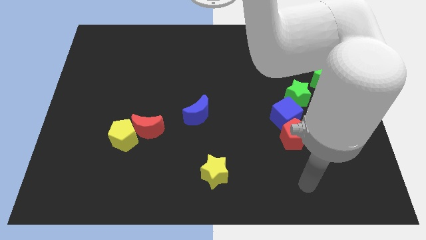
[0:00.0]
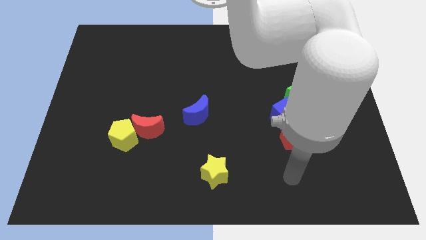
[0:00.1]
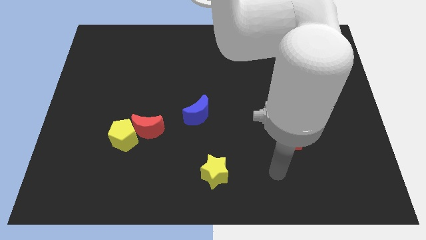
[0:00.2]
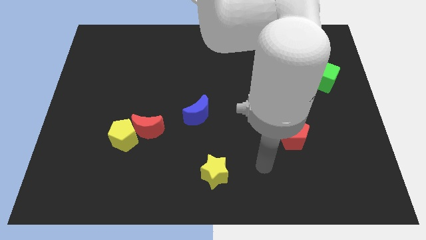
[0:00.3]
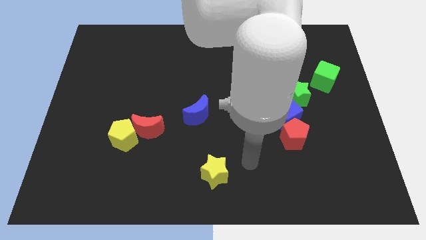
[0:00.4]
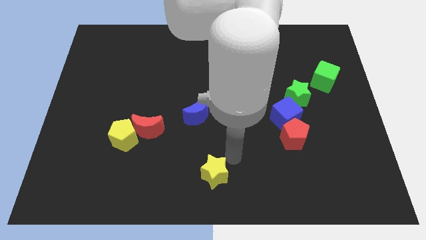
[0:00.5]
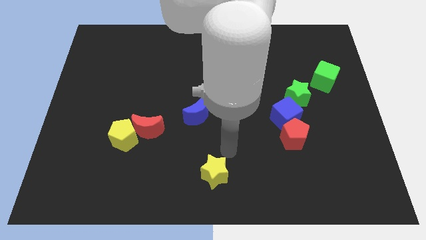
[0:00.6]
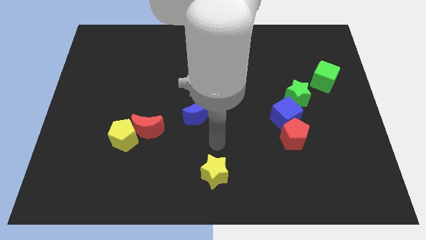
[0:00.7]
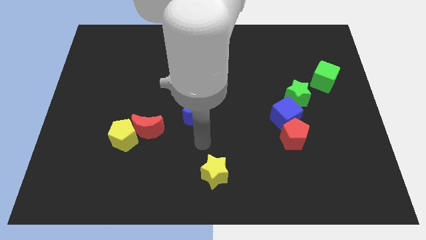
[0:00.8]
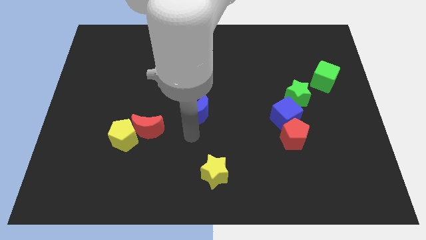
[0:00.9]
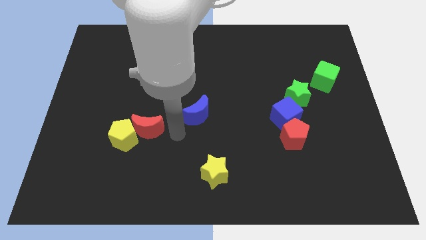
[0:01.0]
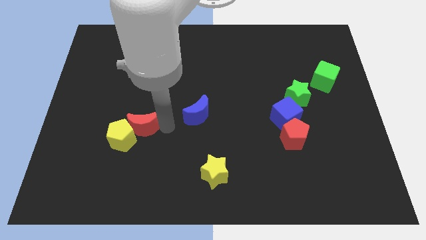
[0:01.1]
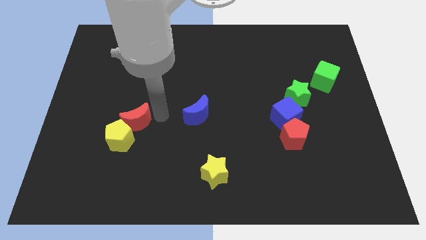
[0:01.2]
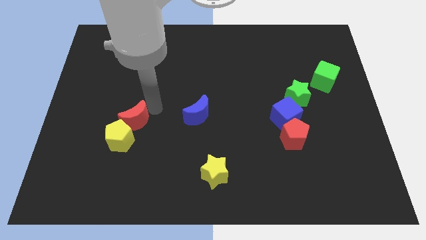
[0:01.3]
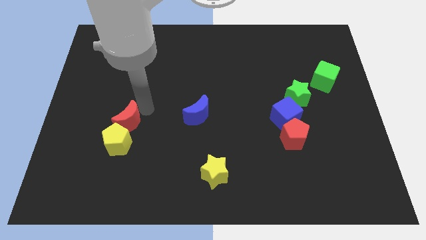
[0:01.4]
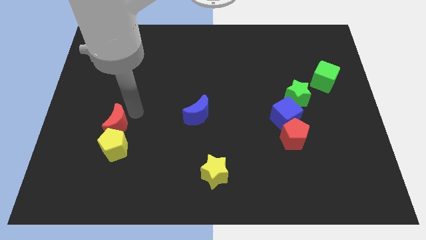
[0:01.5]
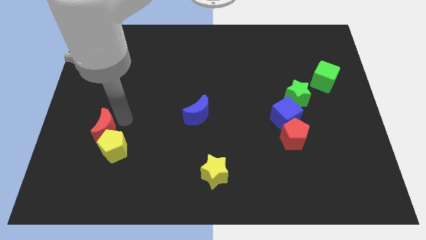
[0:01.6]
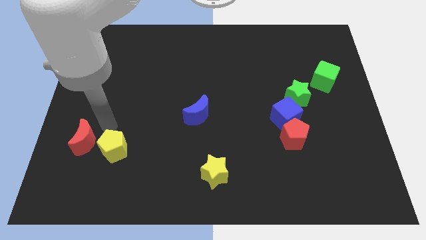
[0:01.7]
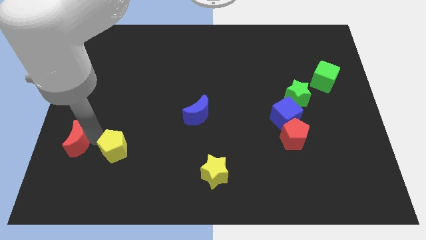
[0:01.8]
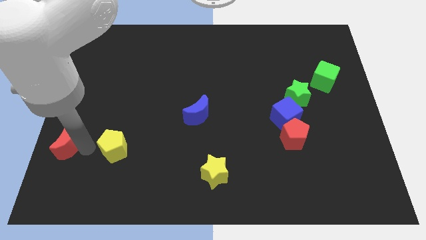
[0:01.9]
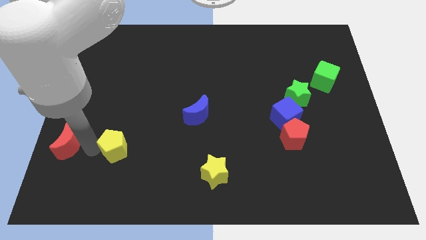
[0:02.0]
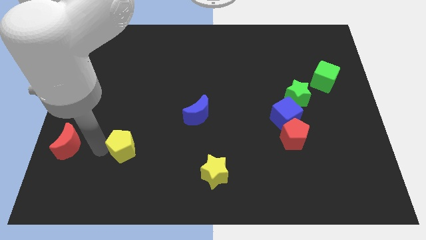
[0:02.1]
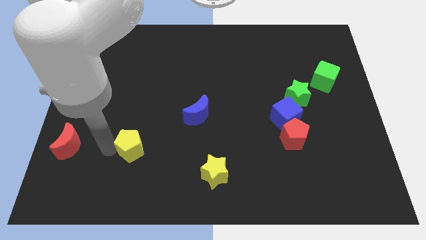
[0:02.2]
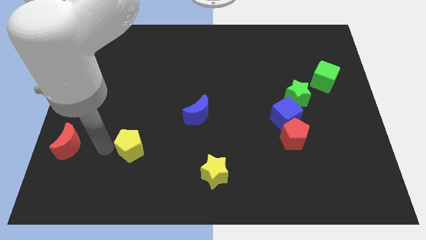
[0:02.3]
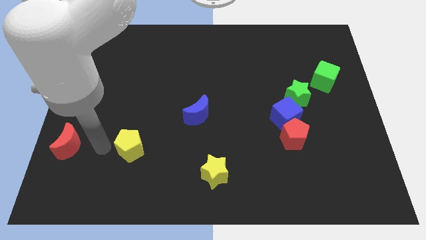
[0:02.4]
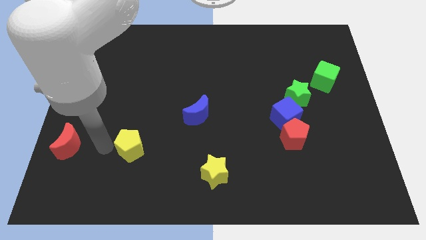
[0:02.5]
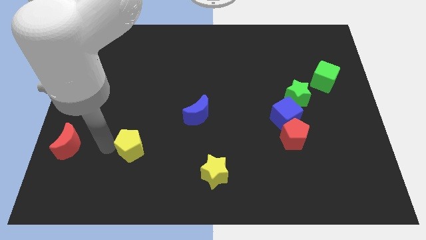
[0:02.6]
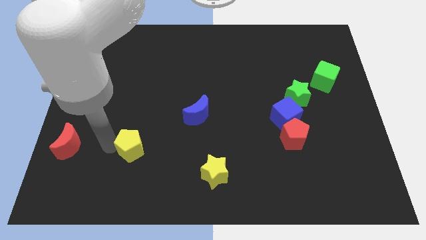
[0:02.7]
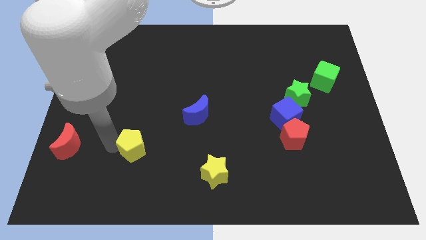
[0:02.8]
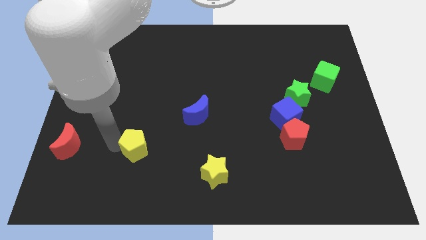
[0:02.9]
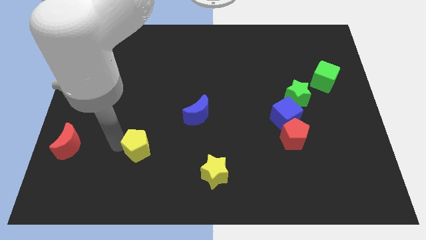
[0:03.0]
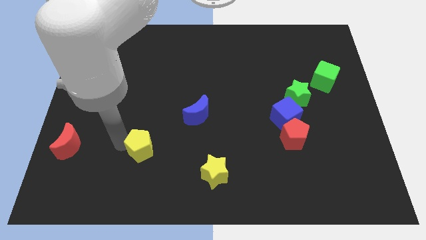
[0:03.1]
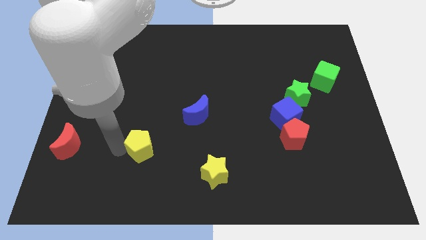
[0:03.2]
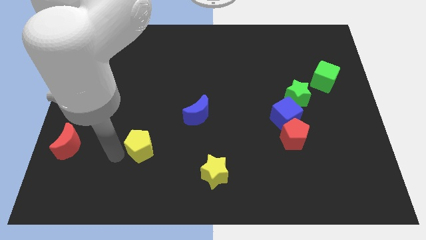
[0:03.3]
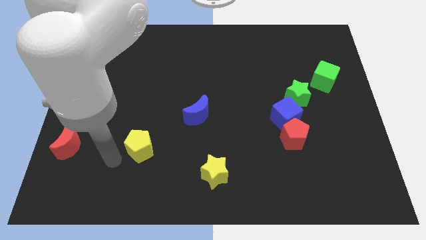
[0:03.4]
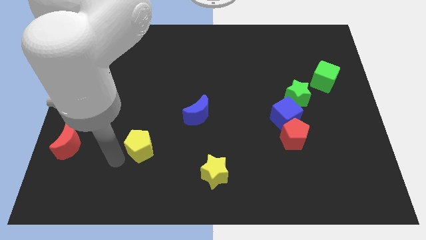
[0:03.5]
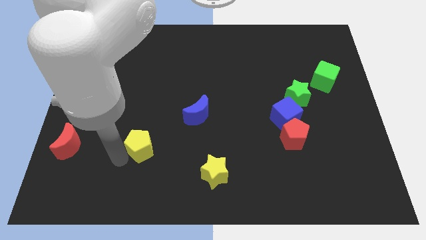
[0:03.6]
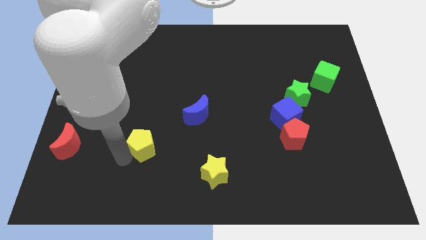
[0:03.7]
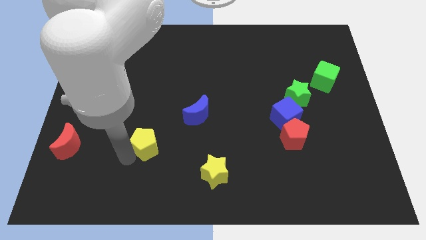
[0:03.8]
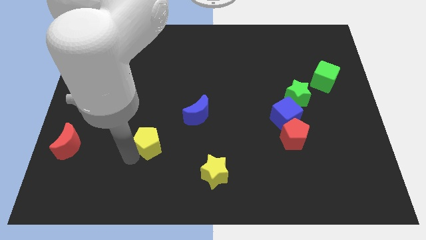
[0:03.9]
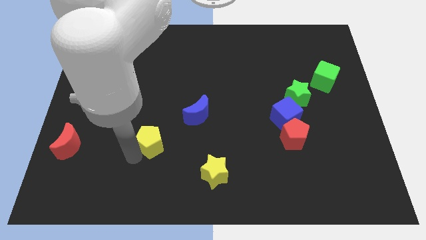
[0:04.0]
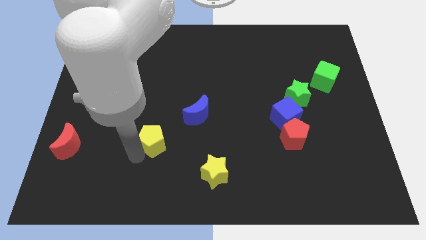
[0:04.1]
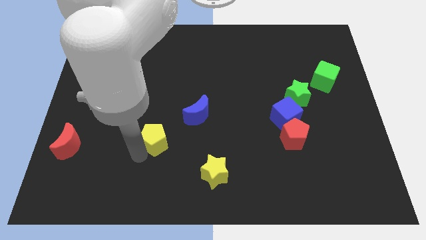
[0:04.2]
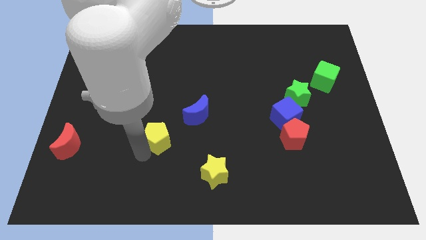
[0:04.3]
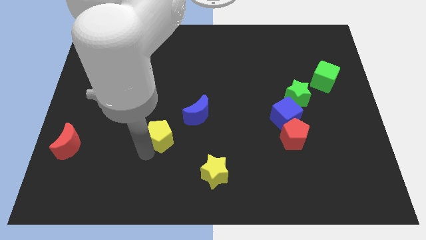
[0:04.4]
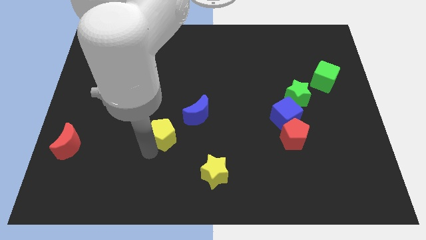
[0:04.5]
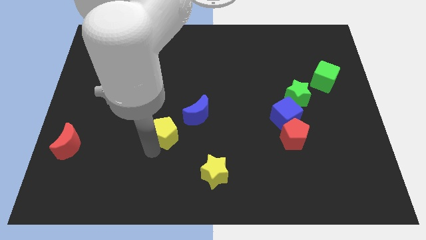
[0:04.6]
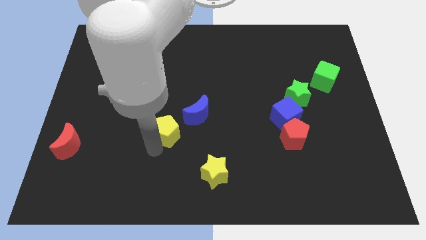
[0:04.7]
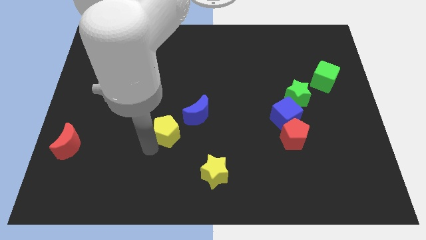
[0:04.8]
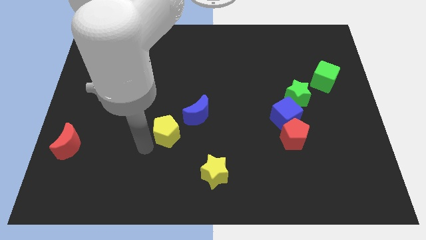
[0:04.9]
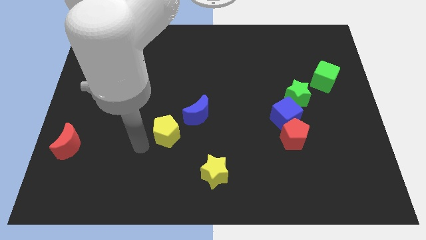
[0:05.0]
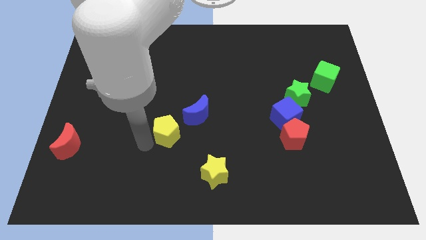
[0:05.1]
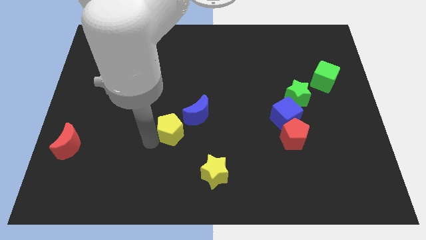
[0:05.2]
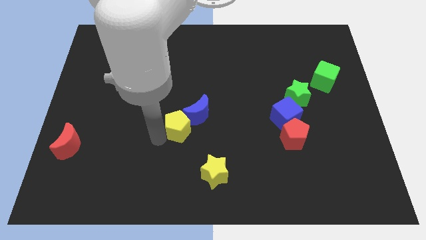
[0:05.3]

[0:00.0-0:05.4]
push the yellow pentagon next to the blue moon

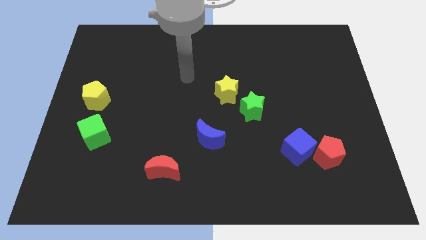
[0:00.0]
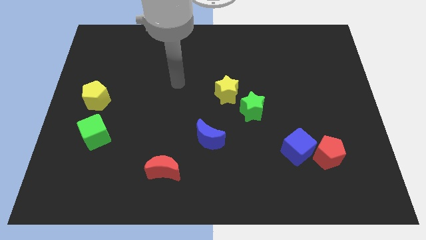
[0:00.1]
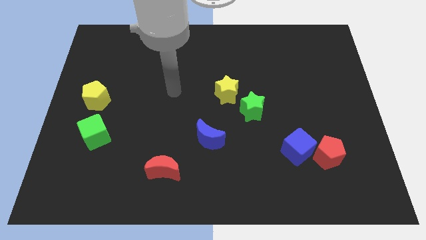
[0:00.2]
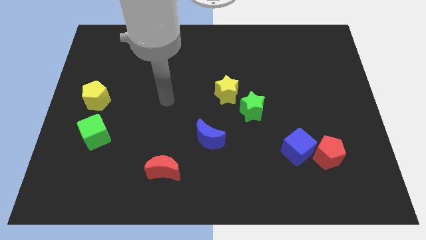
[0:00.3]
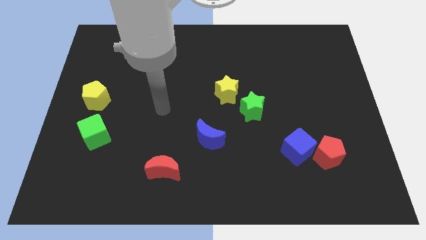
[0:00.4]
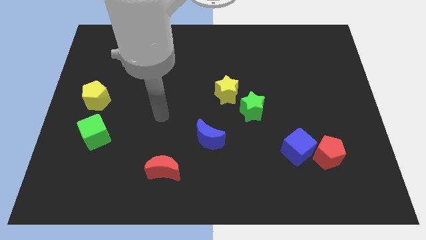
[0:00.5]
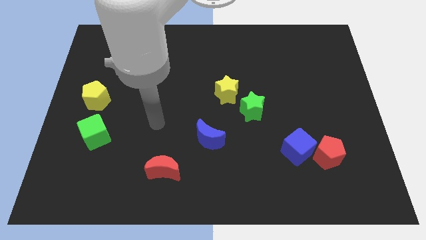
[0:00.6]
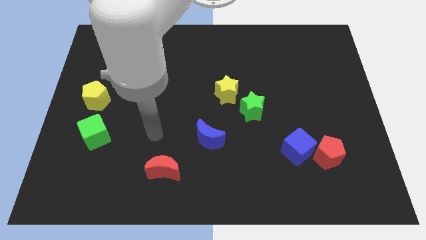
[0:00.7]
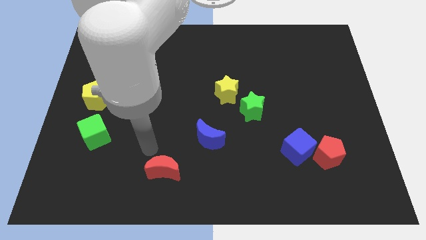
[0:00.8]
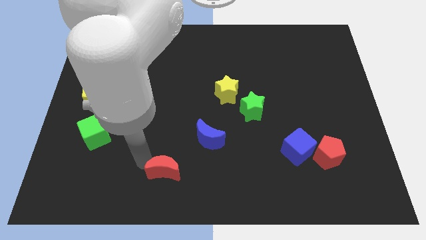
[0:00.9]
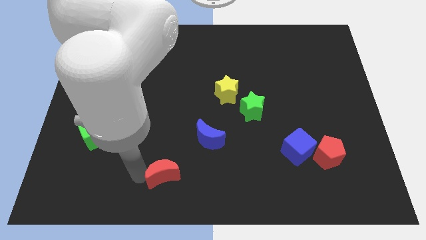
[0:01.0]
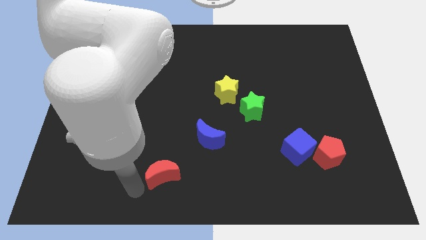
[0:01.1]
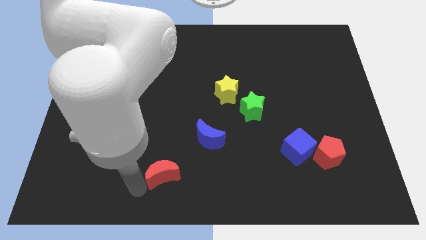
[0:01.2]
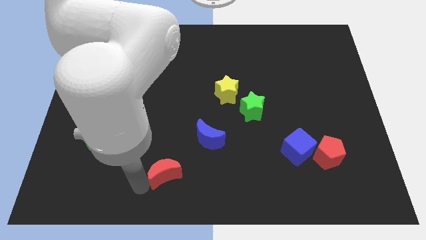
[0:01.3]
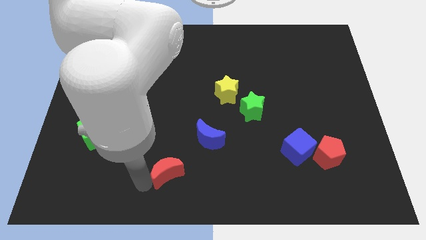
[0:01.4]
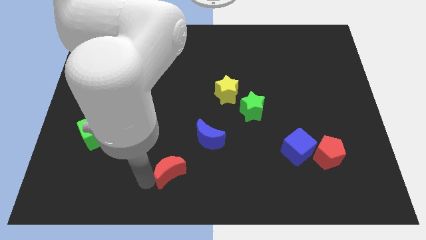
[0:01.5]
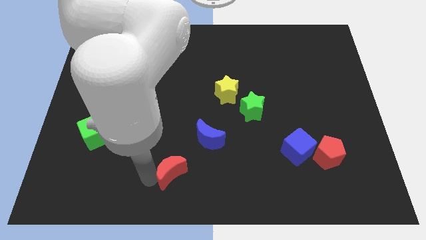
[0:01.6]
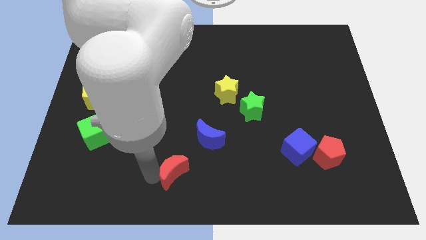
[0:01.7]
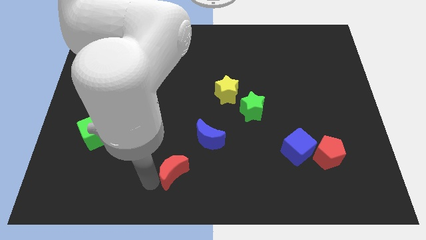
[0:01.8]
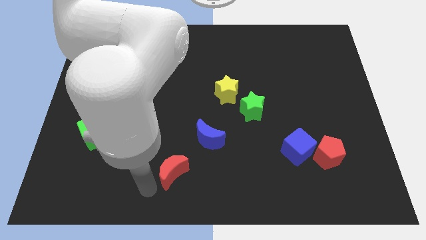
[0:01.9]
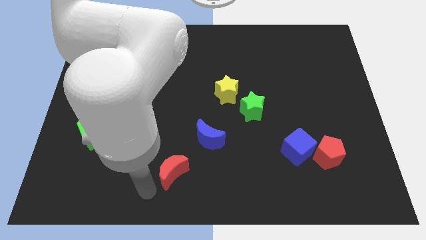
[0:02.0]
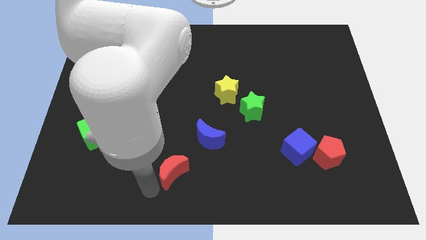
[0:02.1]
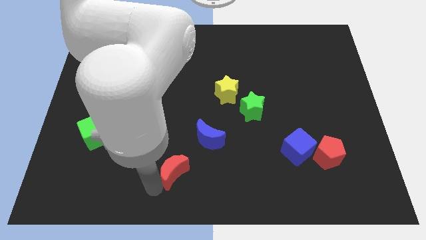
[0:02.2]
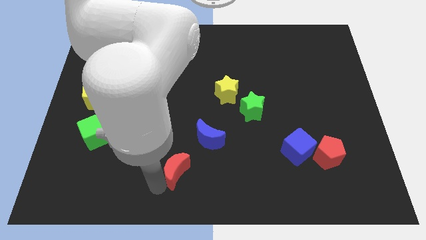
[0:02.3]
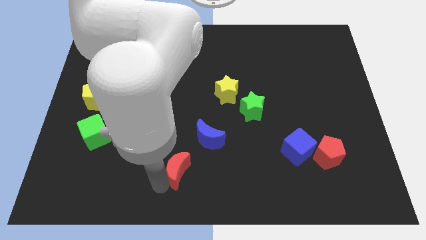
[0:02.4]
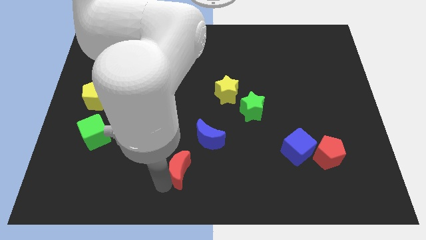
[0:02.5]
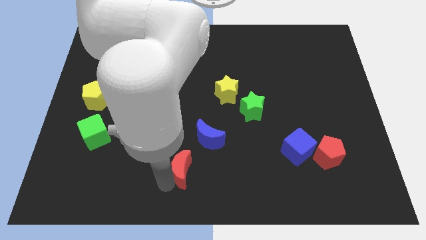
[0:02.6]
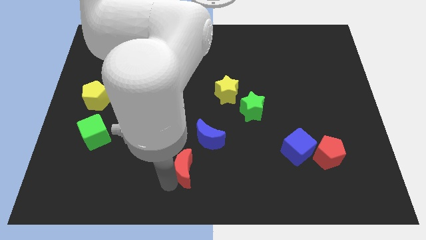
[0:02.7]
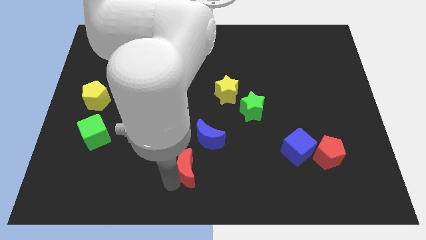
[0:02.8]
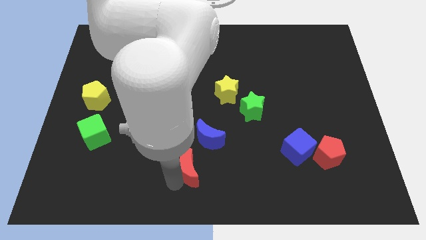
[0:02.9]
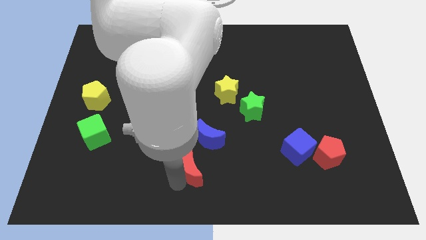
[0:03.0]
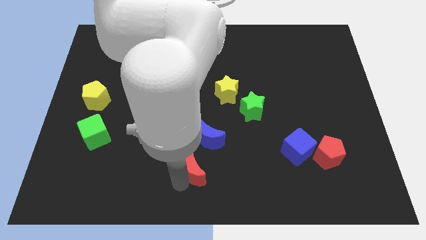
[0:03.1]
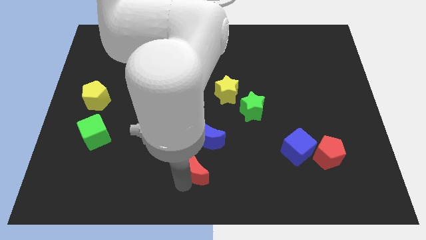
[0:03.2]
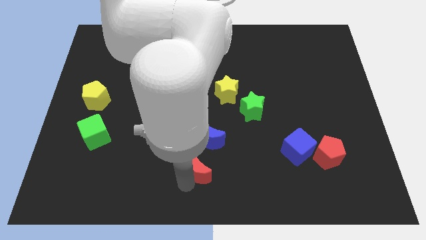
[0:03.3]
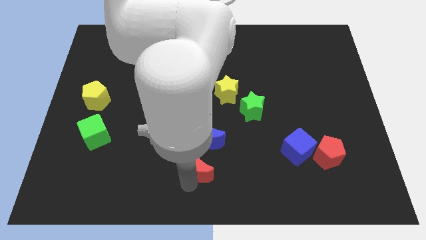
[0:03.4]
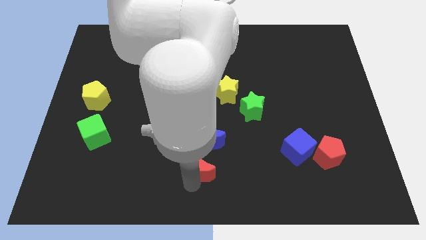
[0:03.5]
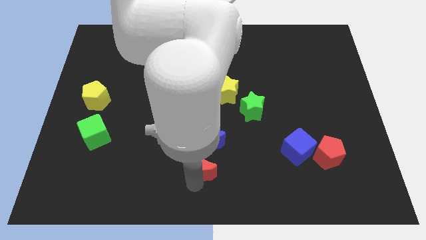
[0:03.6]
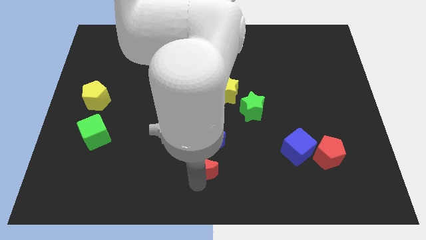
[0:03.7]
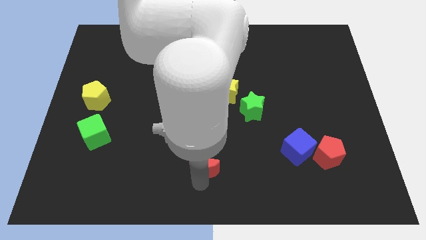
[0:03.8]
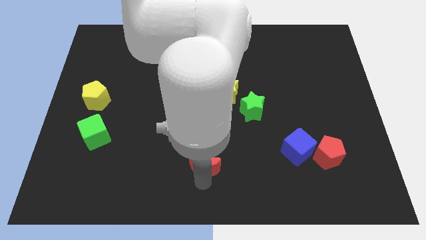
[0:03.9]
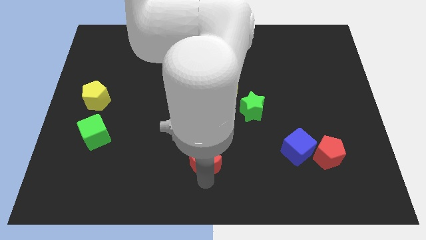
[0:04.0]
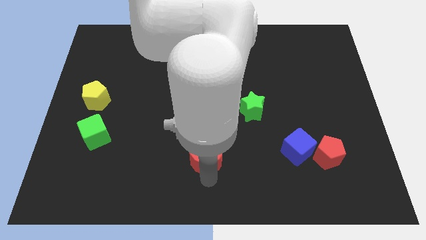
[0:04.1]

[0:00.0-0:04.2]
slide the red moon next to the blue moon
